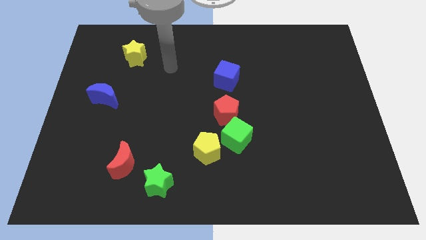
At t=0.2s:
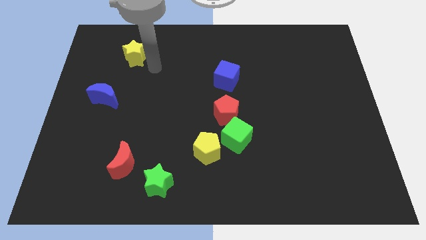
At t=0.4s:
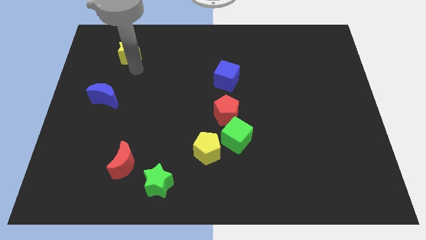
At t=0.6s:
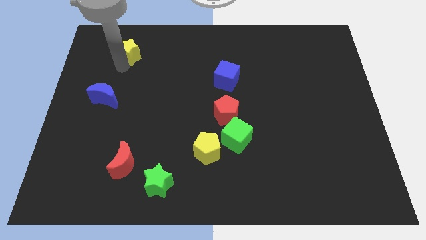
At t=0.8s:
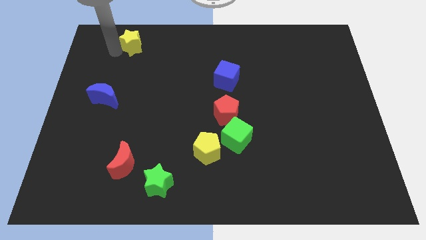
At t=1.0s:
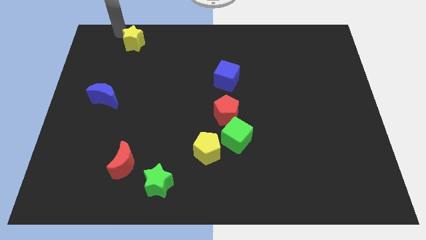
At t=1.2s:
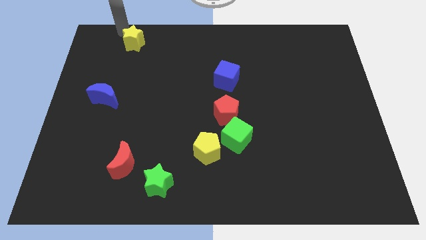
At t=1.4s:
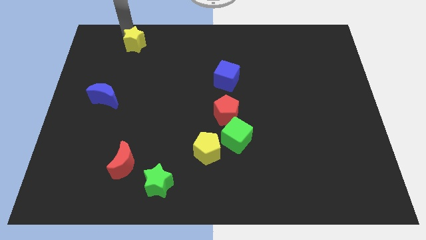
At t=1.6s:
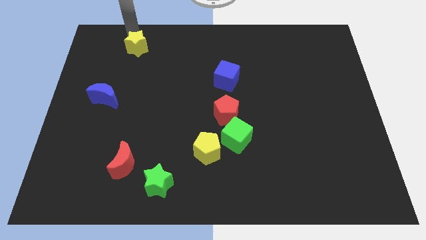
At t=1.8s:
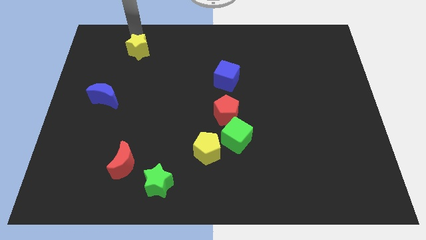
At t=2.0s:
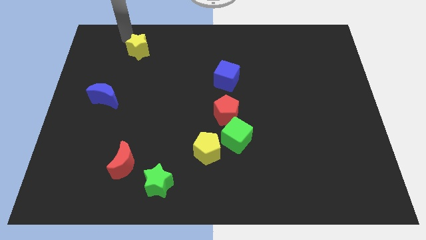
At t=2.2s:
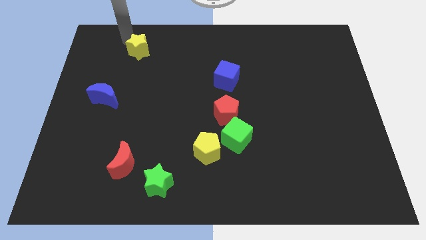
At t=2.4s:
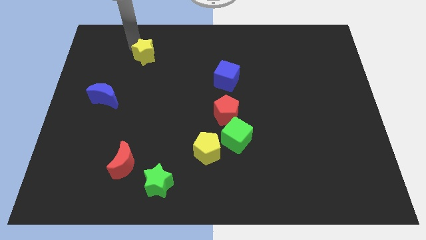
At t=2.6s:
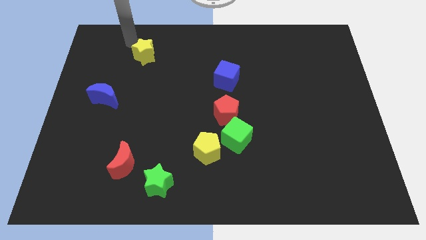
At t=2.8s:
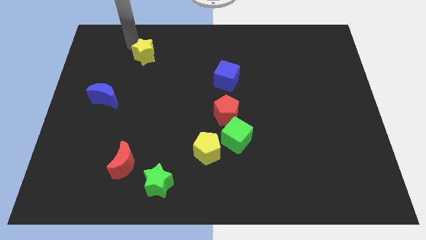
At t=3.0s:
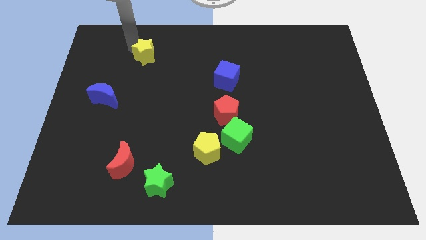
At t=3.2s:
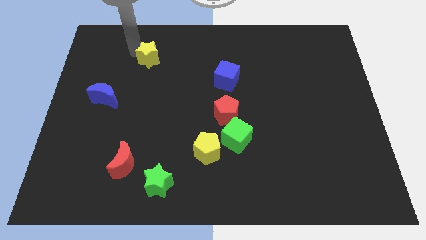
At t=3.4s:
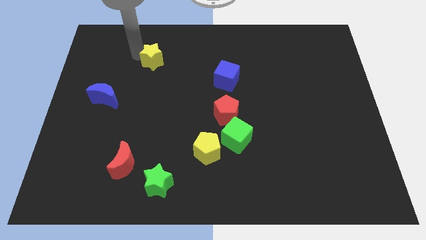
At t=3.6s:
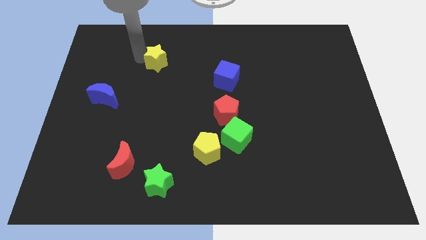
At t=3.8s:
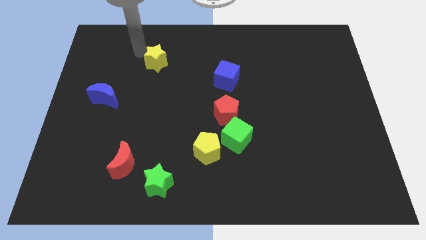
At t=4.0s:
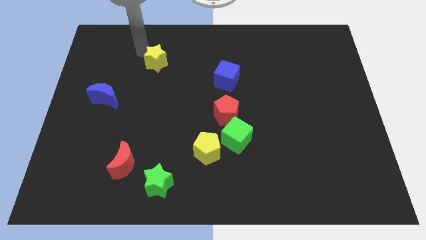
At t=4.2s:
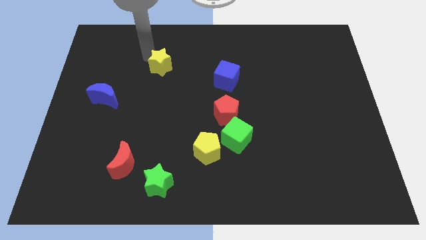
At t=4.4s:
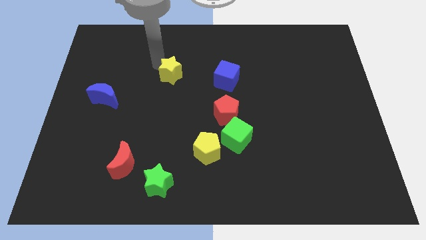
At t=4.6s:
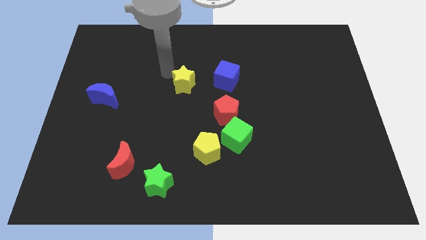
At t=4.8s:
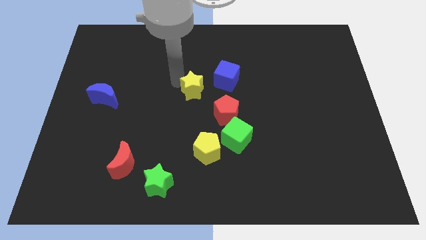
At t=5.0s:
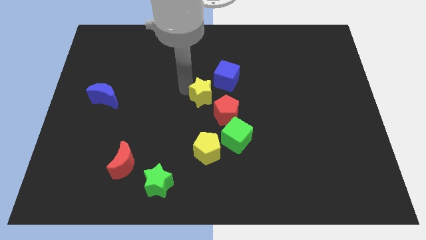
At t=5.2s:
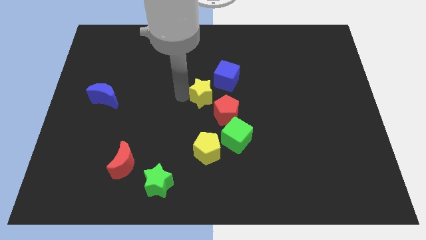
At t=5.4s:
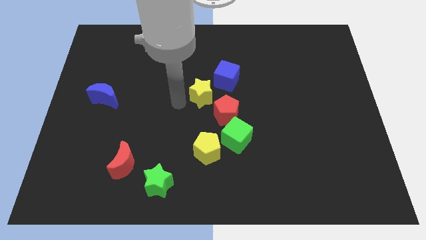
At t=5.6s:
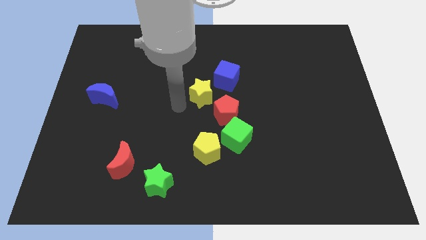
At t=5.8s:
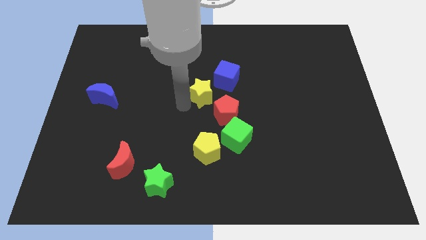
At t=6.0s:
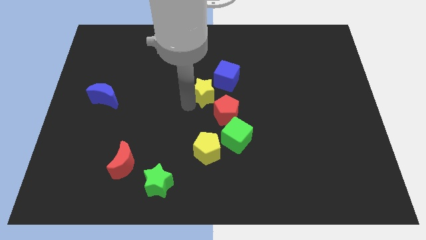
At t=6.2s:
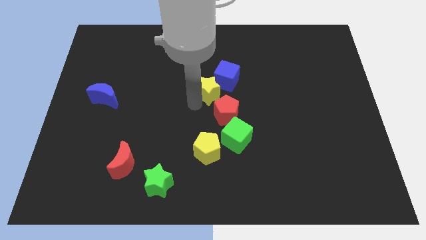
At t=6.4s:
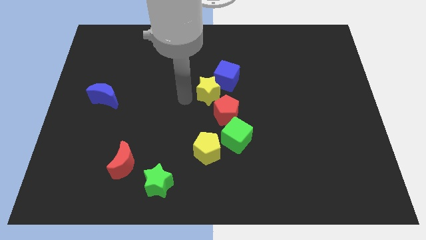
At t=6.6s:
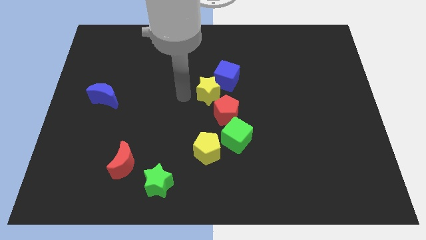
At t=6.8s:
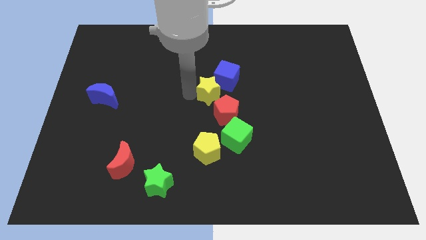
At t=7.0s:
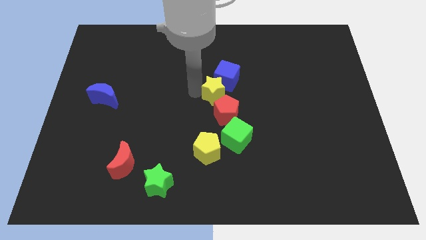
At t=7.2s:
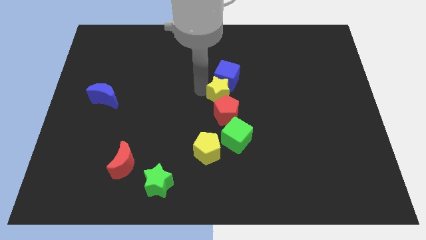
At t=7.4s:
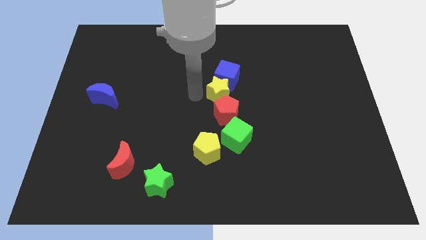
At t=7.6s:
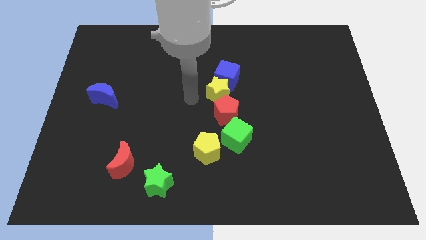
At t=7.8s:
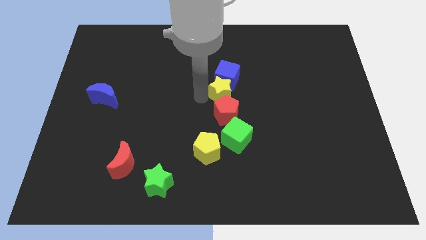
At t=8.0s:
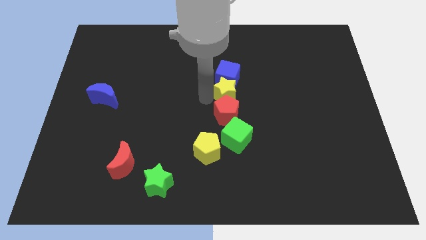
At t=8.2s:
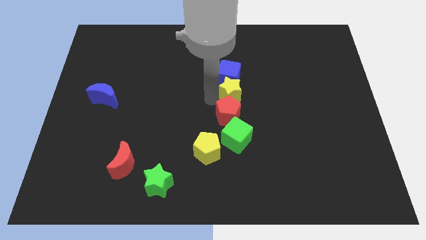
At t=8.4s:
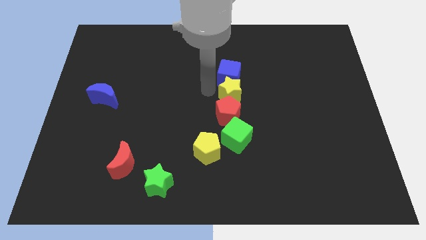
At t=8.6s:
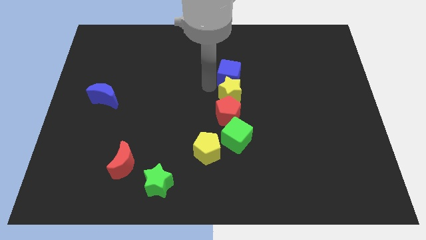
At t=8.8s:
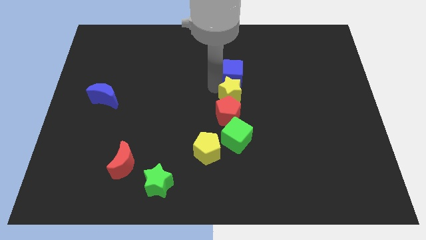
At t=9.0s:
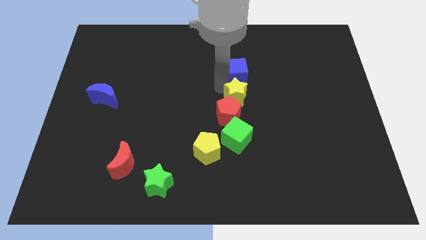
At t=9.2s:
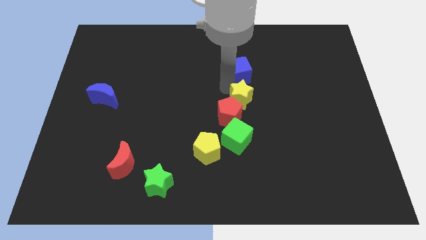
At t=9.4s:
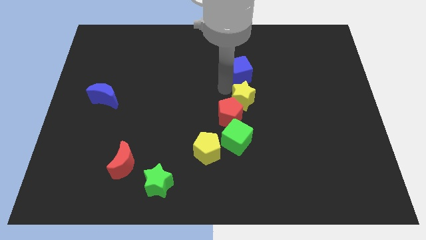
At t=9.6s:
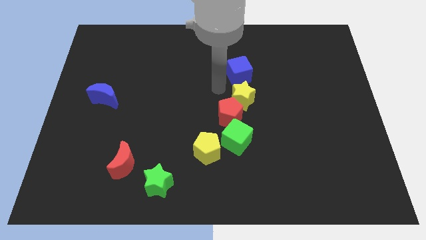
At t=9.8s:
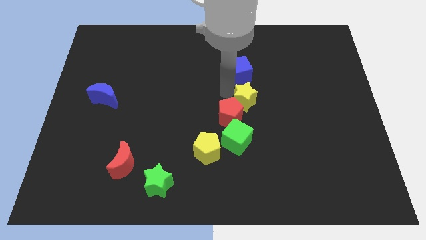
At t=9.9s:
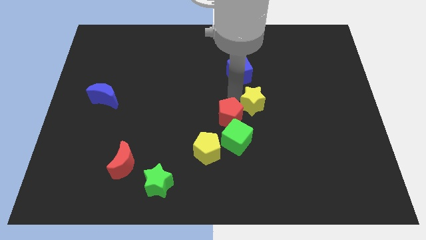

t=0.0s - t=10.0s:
push the yellow star to the right side of the red pentagon

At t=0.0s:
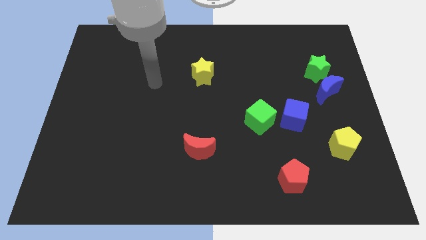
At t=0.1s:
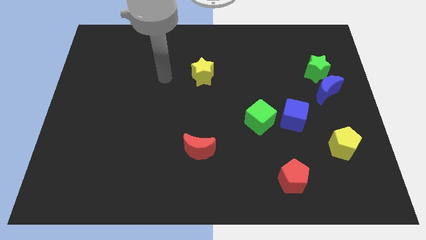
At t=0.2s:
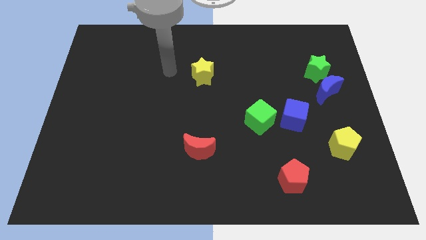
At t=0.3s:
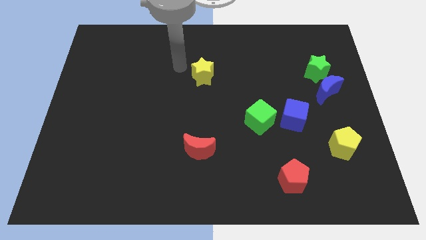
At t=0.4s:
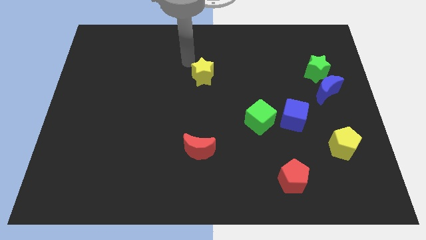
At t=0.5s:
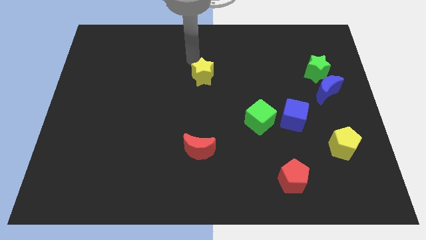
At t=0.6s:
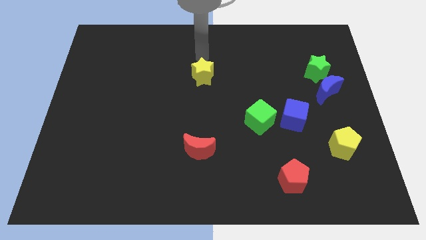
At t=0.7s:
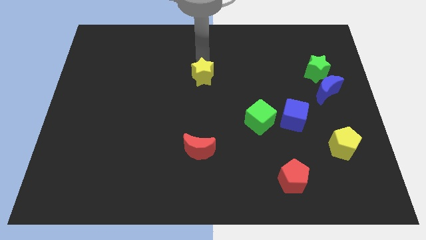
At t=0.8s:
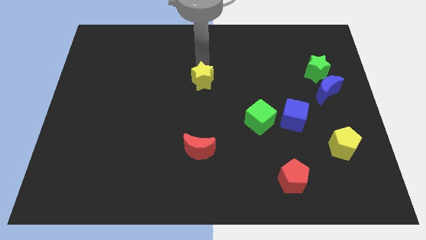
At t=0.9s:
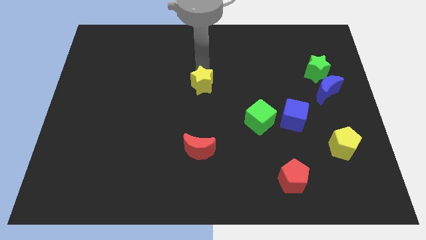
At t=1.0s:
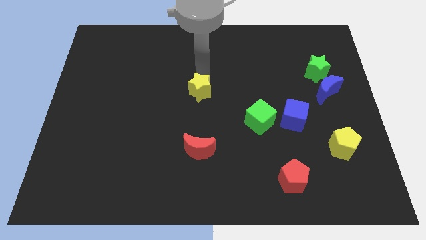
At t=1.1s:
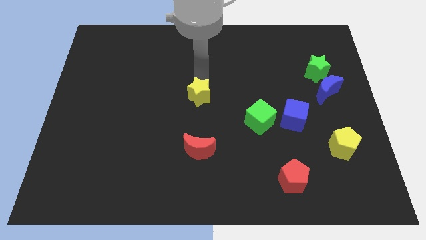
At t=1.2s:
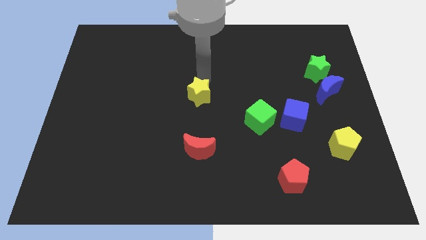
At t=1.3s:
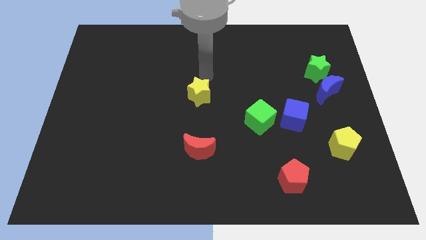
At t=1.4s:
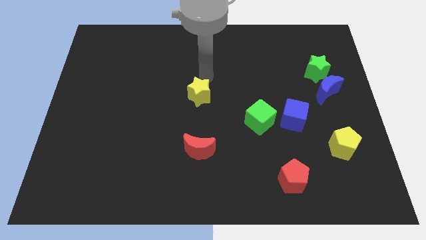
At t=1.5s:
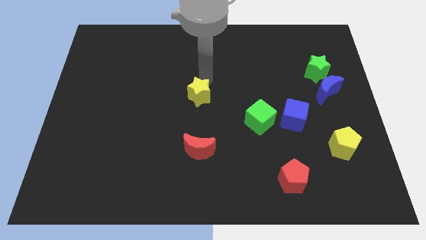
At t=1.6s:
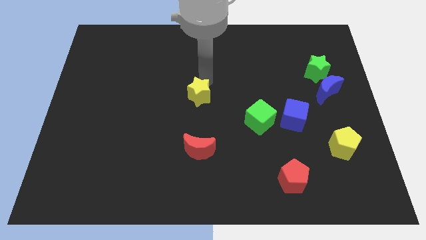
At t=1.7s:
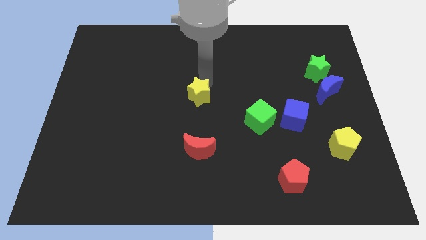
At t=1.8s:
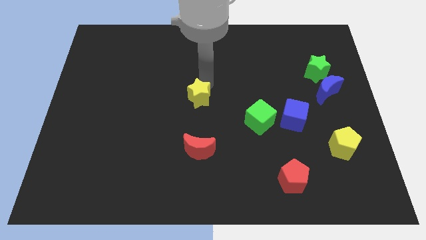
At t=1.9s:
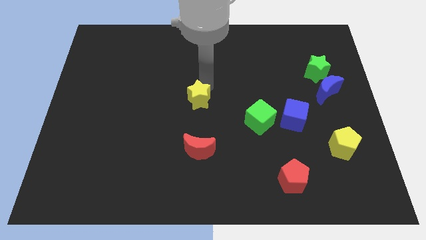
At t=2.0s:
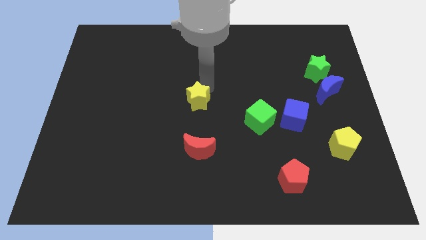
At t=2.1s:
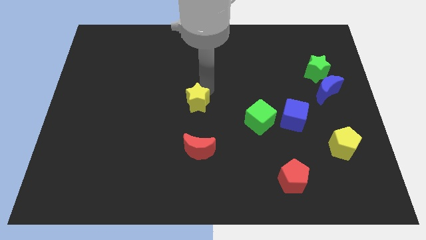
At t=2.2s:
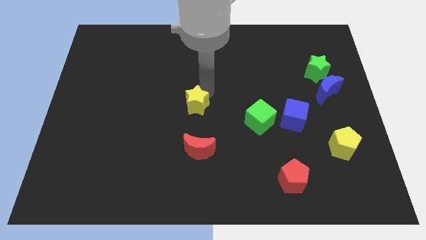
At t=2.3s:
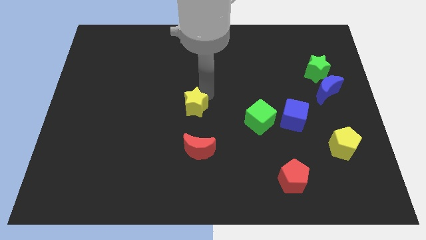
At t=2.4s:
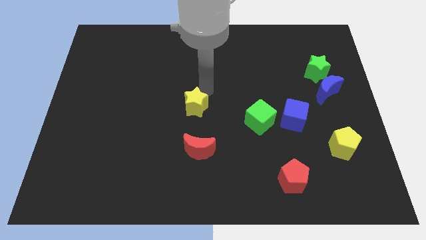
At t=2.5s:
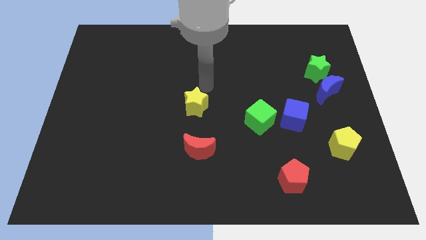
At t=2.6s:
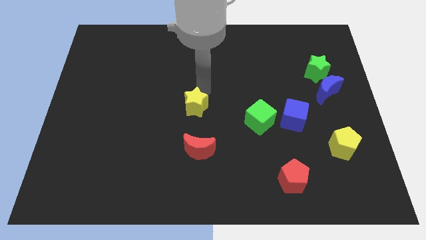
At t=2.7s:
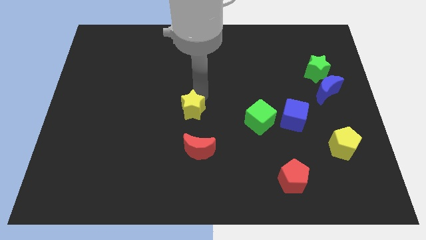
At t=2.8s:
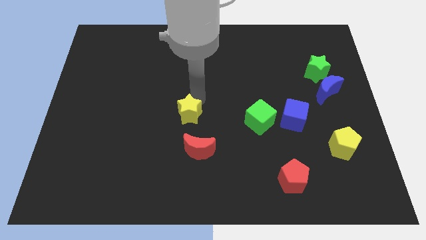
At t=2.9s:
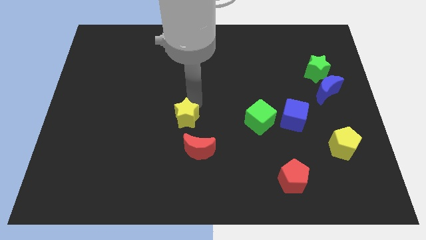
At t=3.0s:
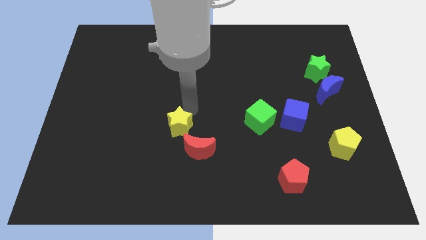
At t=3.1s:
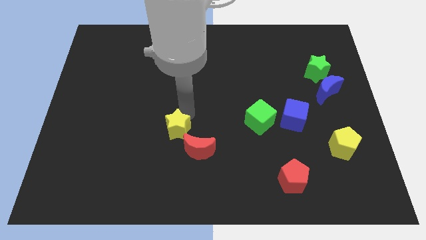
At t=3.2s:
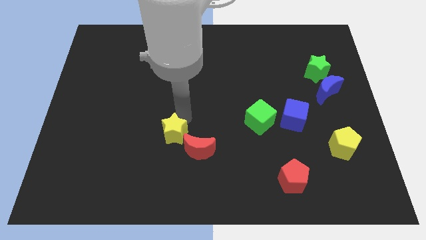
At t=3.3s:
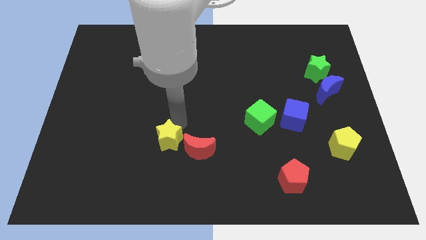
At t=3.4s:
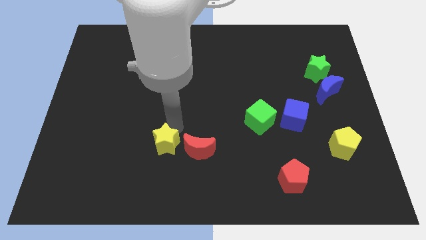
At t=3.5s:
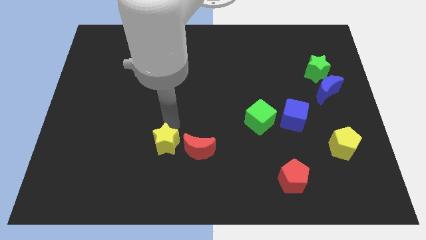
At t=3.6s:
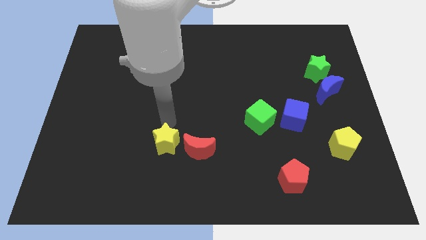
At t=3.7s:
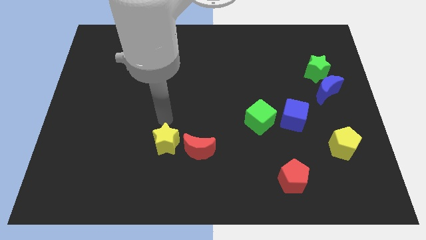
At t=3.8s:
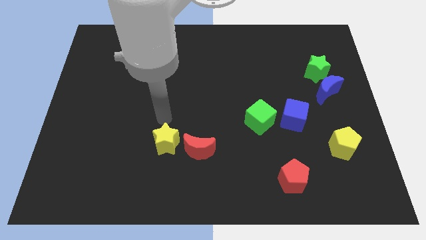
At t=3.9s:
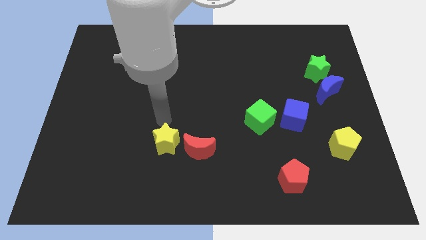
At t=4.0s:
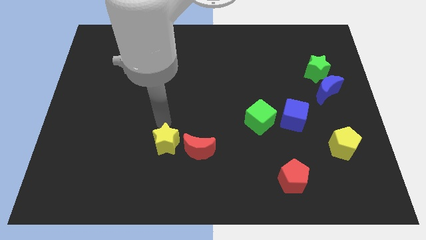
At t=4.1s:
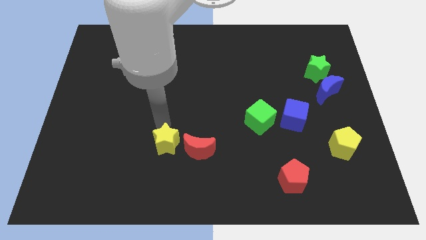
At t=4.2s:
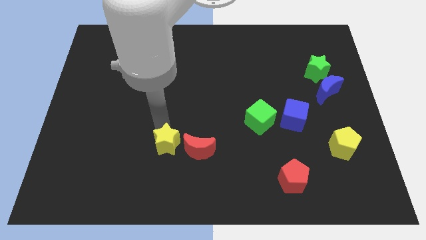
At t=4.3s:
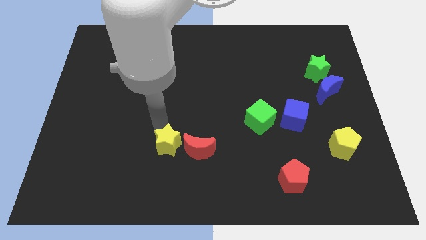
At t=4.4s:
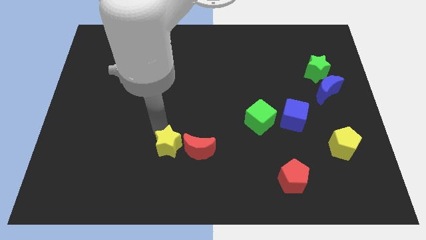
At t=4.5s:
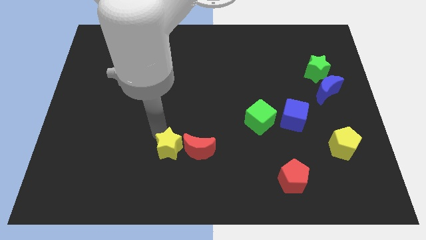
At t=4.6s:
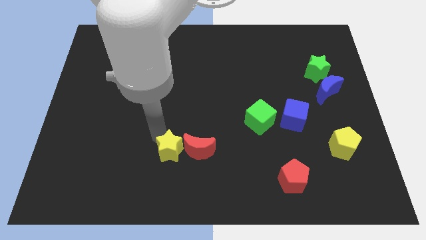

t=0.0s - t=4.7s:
move the yellow star to the bottom left side of the red moon
